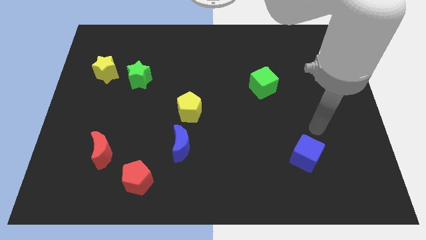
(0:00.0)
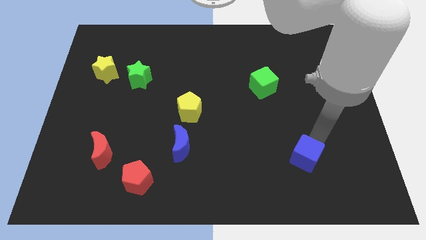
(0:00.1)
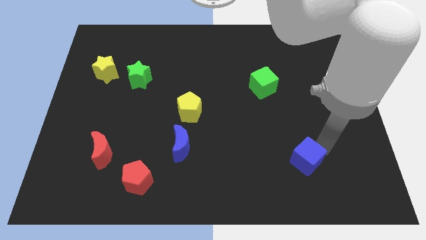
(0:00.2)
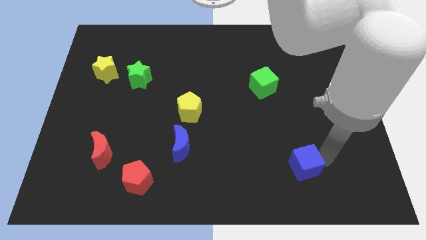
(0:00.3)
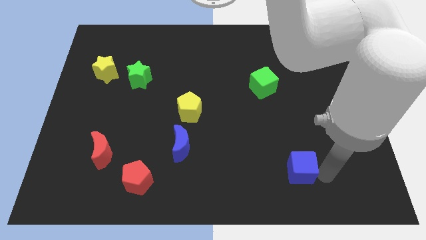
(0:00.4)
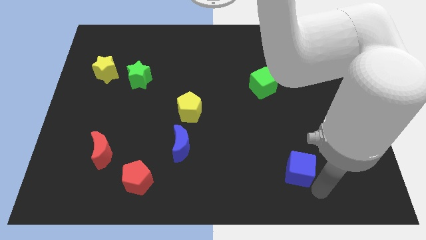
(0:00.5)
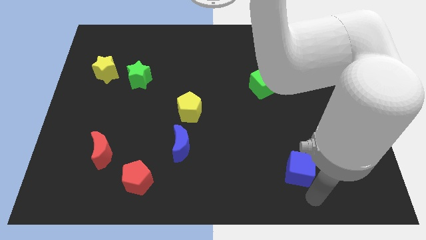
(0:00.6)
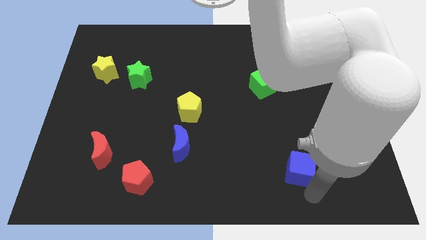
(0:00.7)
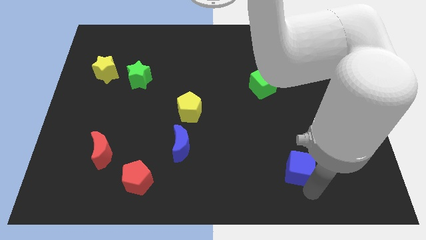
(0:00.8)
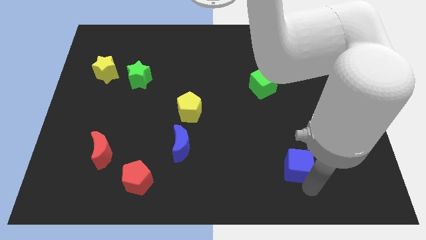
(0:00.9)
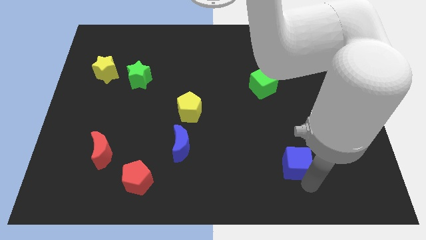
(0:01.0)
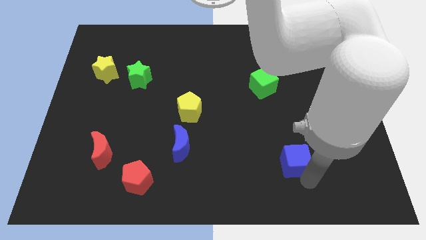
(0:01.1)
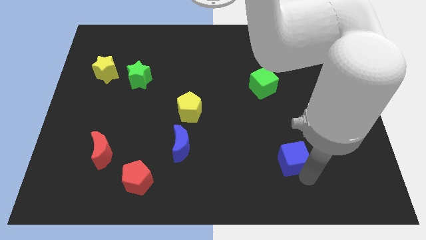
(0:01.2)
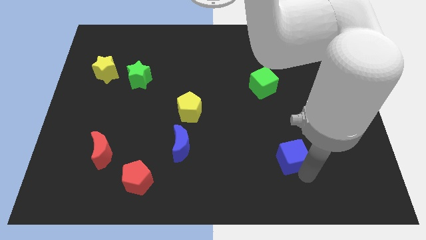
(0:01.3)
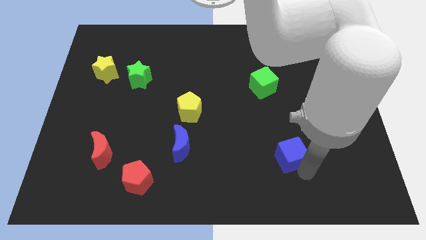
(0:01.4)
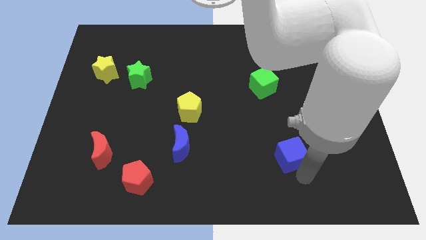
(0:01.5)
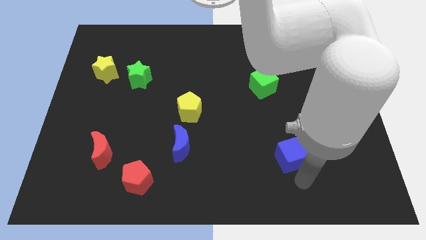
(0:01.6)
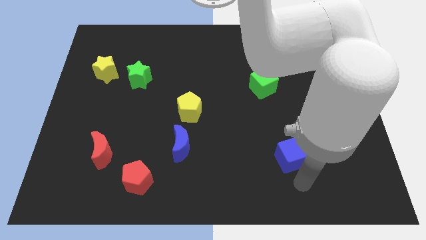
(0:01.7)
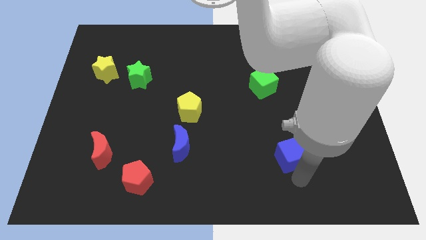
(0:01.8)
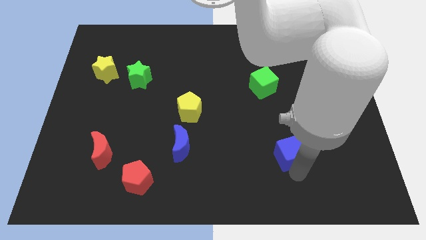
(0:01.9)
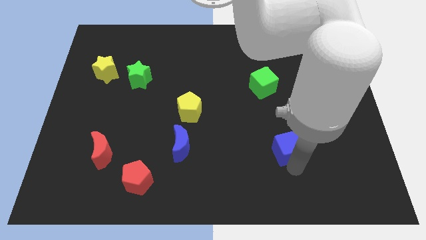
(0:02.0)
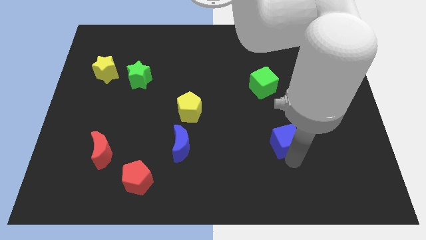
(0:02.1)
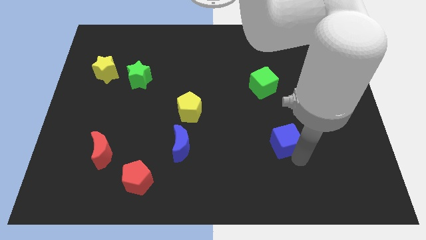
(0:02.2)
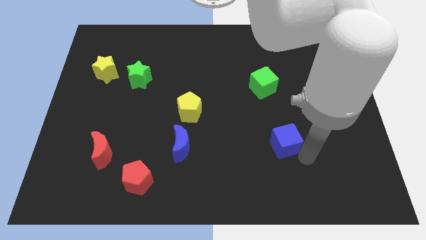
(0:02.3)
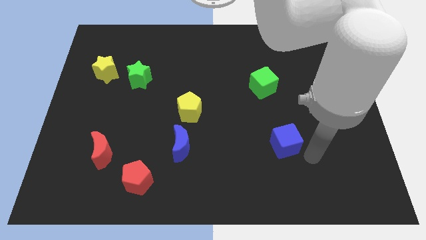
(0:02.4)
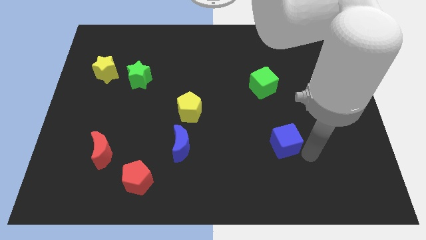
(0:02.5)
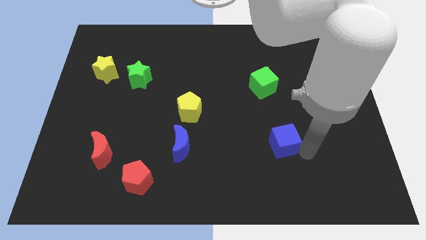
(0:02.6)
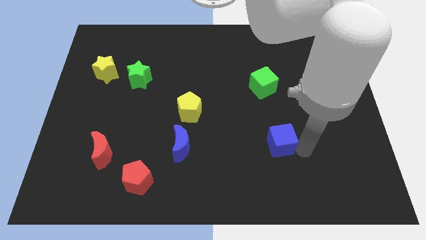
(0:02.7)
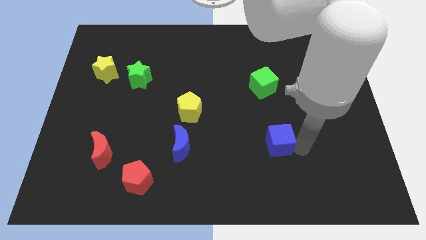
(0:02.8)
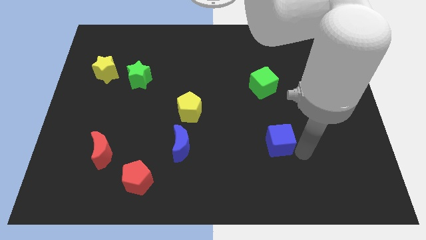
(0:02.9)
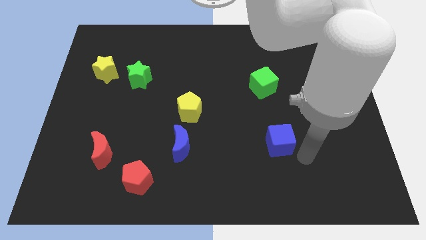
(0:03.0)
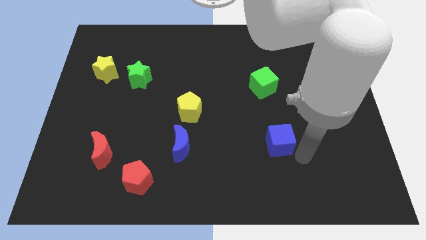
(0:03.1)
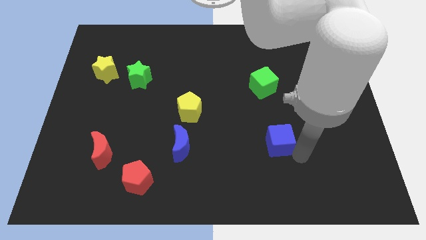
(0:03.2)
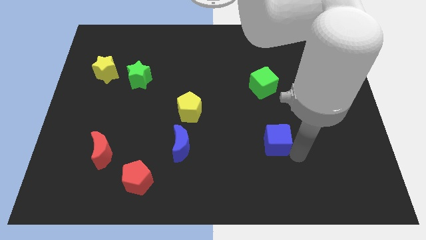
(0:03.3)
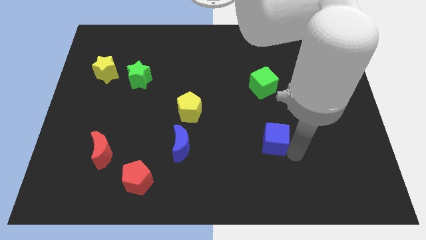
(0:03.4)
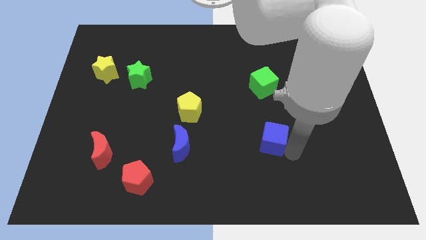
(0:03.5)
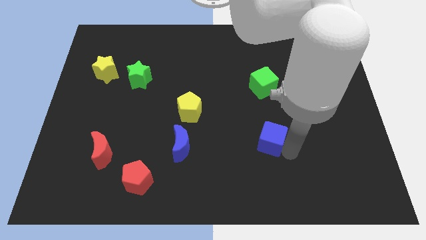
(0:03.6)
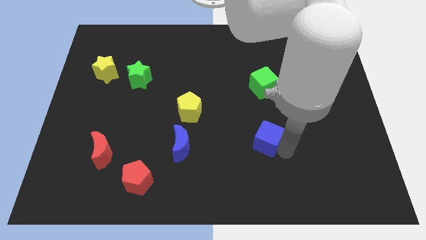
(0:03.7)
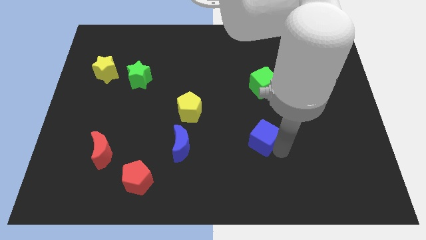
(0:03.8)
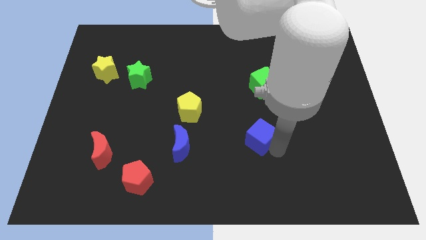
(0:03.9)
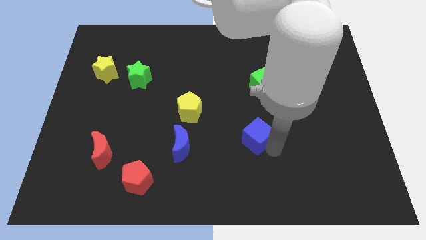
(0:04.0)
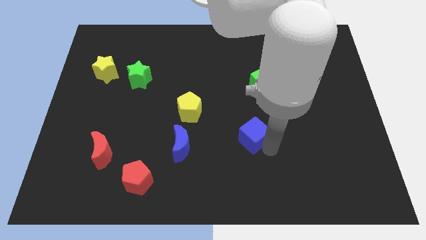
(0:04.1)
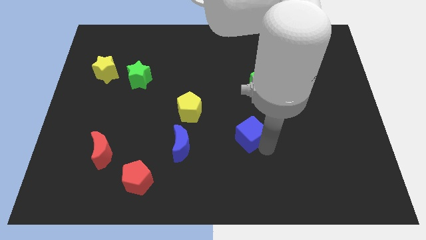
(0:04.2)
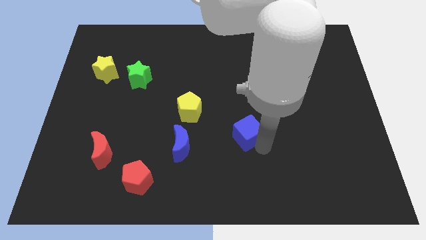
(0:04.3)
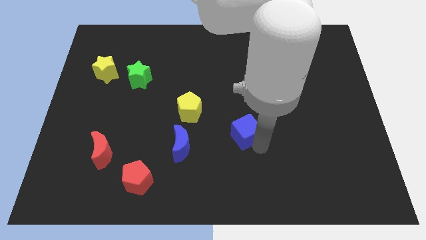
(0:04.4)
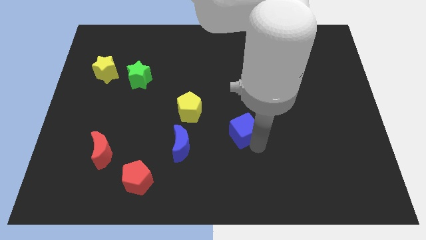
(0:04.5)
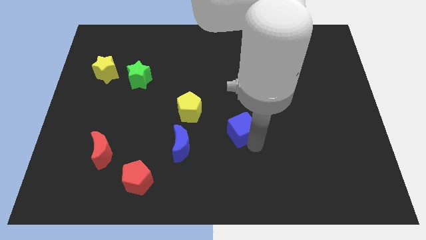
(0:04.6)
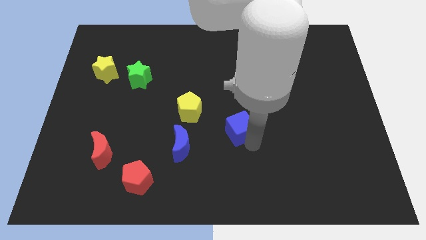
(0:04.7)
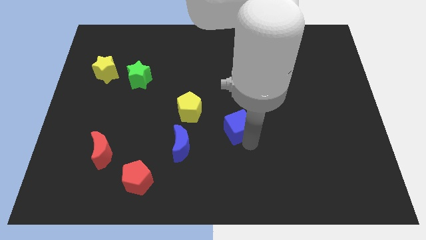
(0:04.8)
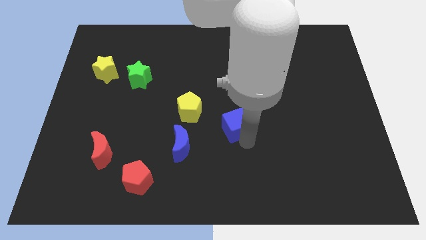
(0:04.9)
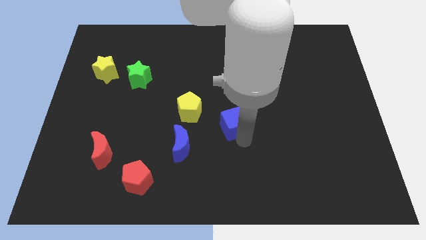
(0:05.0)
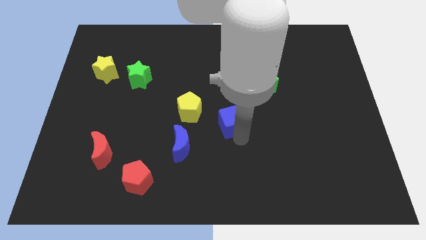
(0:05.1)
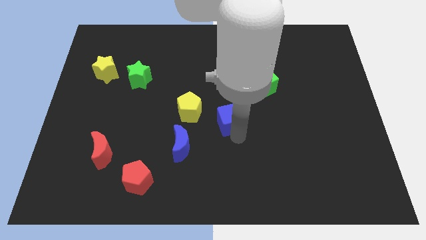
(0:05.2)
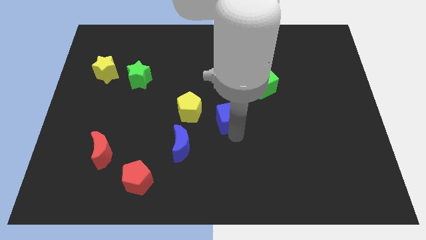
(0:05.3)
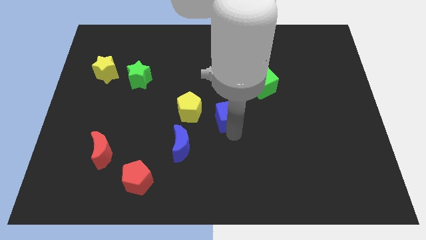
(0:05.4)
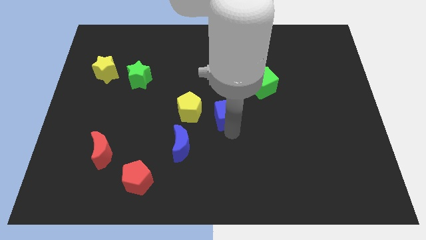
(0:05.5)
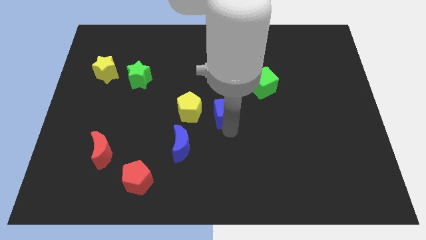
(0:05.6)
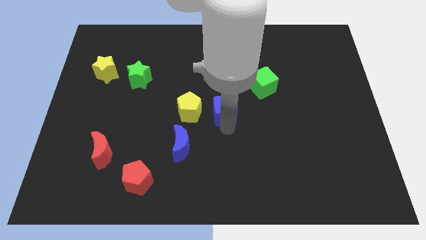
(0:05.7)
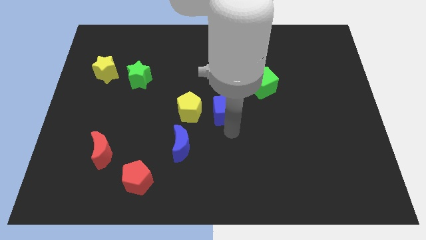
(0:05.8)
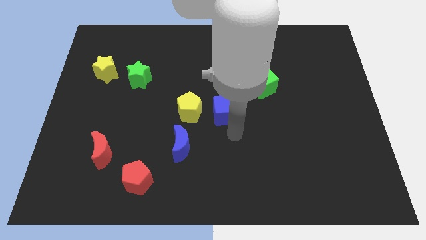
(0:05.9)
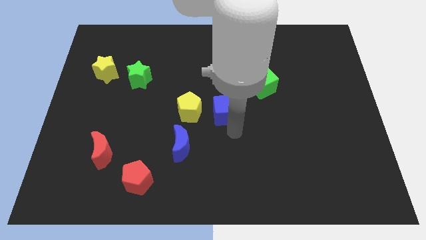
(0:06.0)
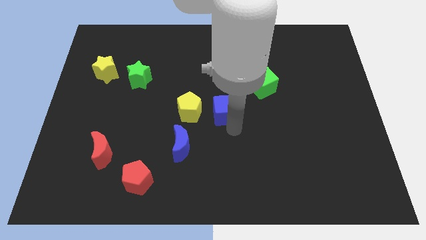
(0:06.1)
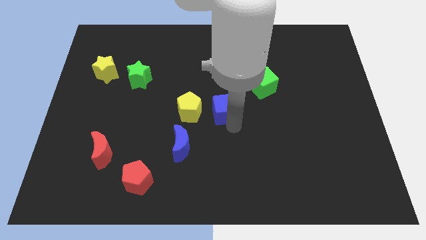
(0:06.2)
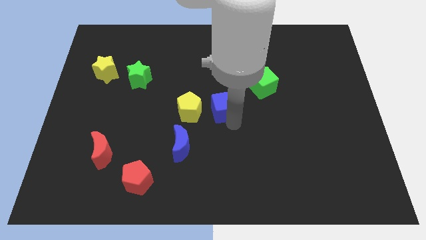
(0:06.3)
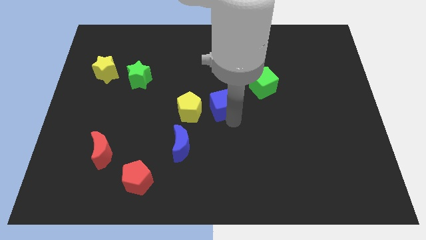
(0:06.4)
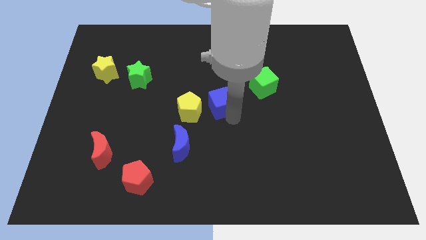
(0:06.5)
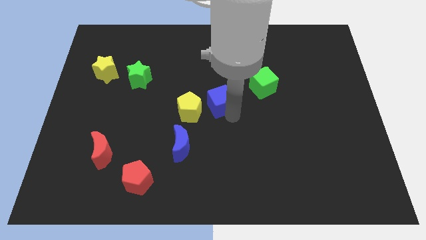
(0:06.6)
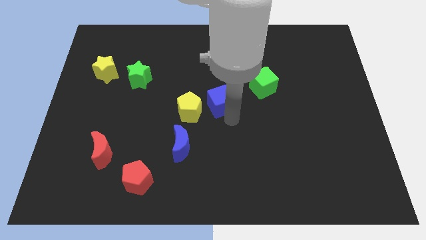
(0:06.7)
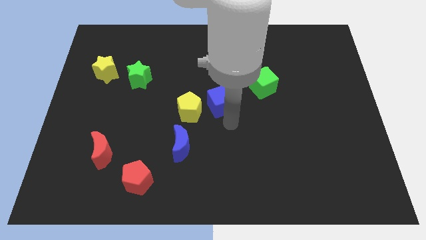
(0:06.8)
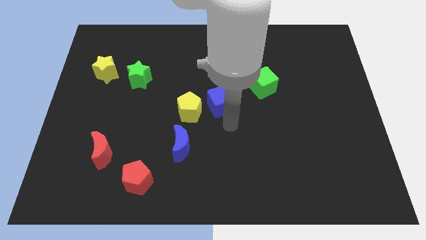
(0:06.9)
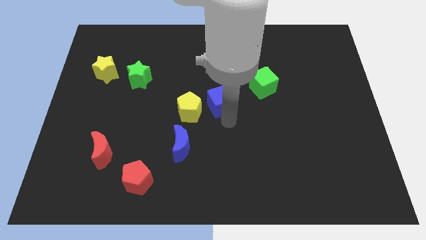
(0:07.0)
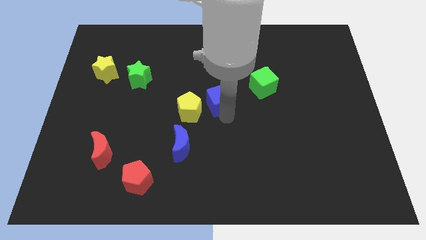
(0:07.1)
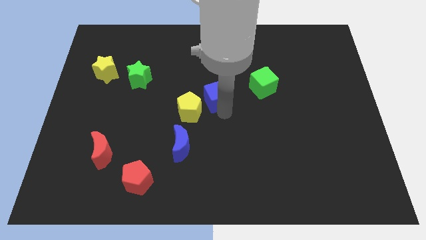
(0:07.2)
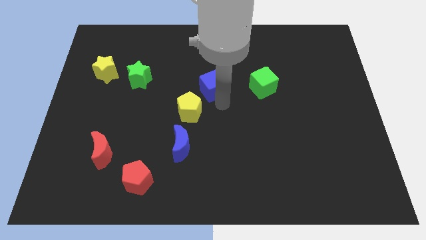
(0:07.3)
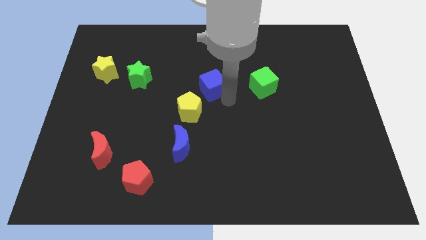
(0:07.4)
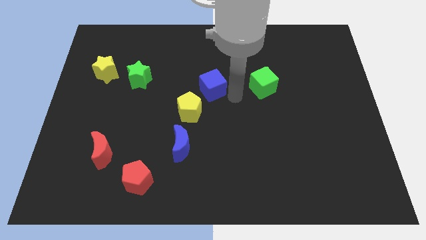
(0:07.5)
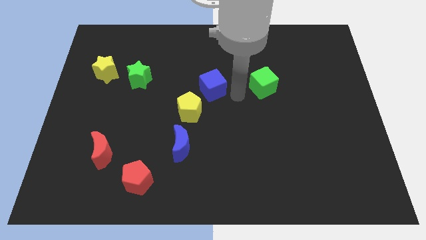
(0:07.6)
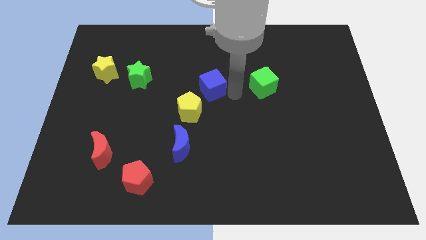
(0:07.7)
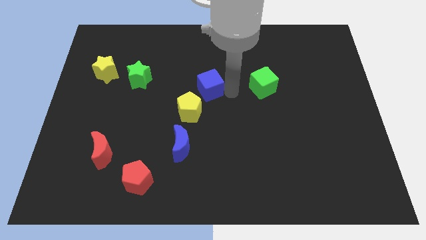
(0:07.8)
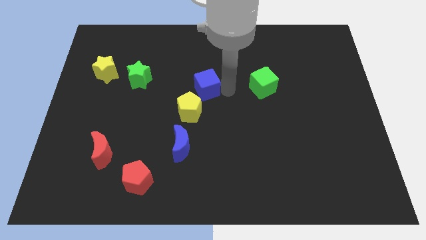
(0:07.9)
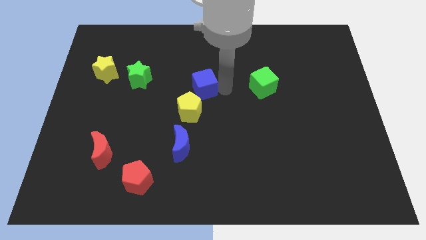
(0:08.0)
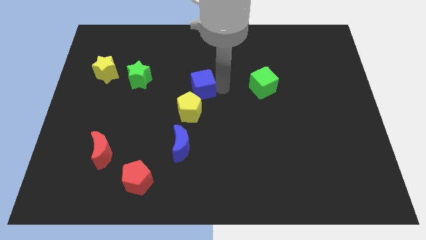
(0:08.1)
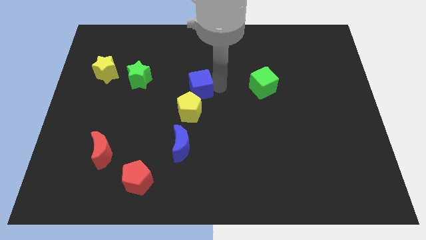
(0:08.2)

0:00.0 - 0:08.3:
move the blue cube just right of the green star
